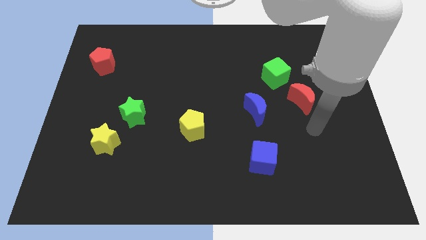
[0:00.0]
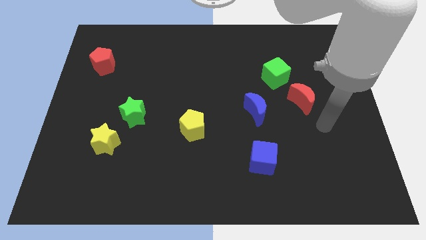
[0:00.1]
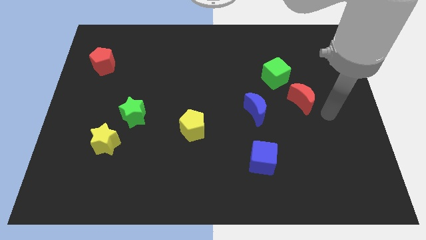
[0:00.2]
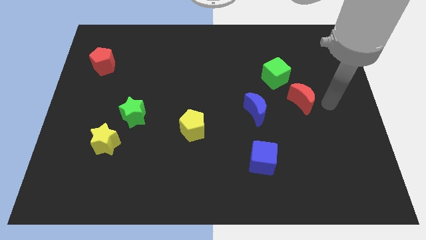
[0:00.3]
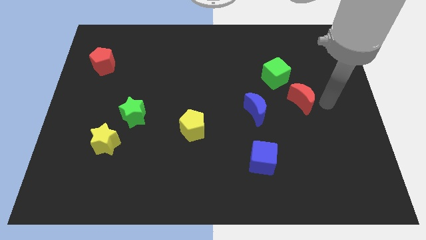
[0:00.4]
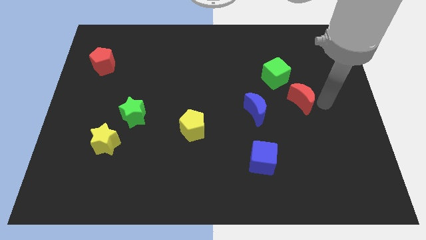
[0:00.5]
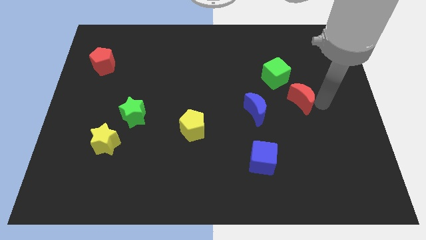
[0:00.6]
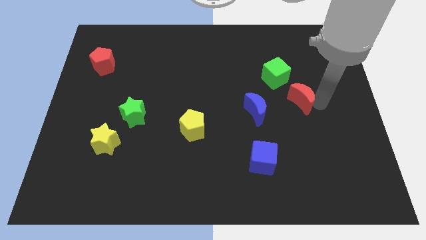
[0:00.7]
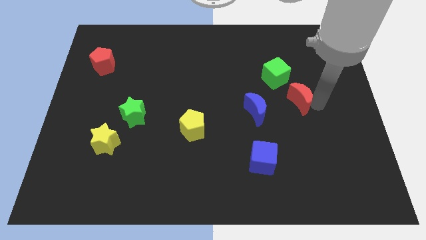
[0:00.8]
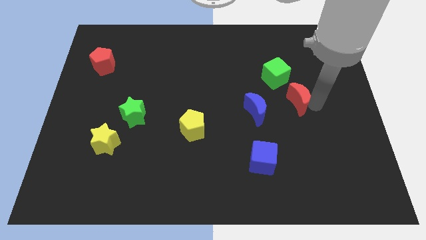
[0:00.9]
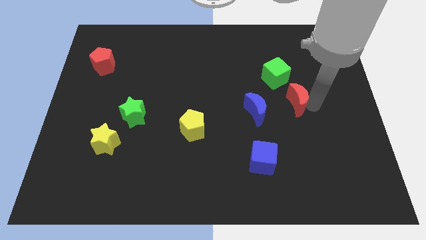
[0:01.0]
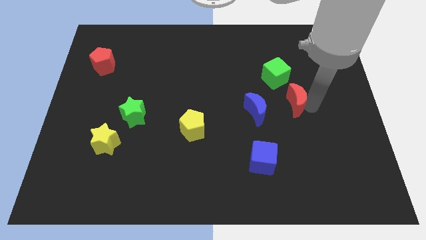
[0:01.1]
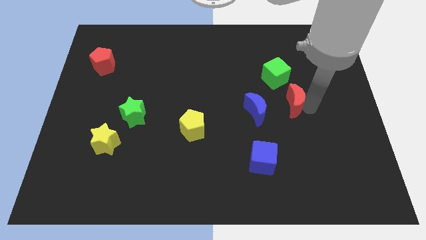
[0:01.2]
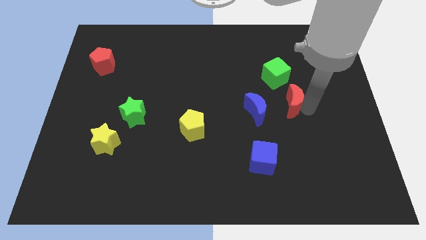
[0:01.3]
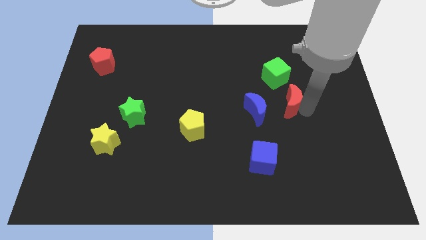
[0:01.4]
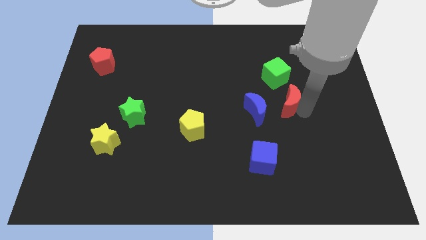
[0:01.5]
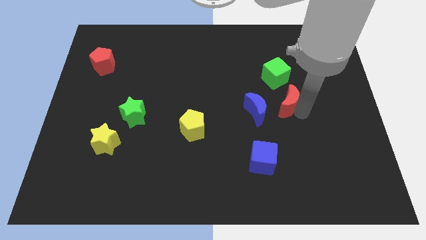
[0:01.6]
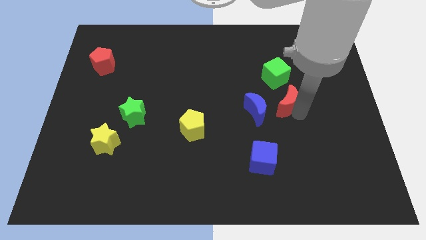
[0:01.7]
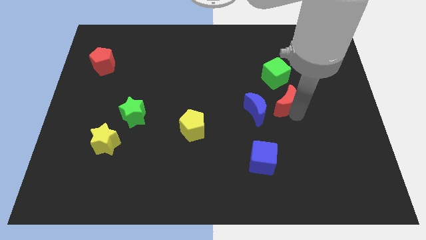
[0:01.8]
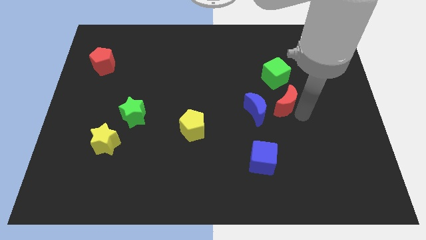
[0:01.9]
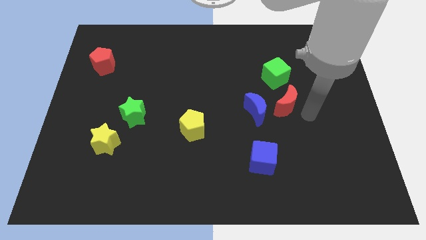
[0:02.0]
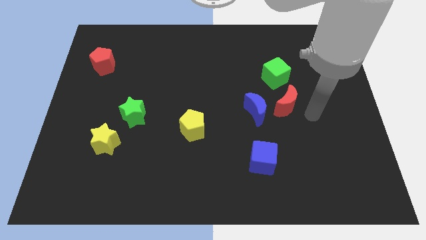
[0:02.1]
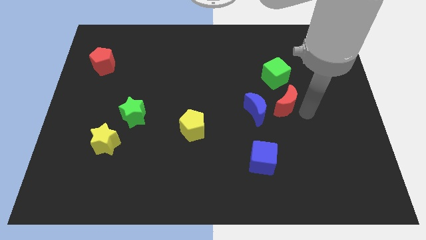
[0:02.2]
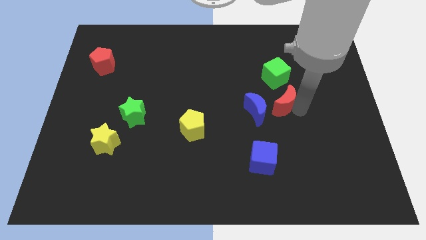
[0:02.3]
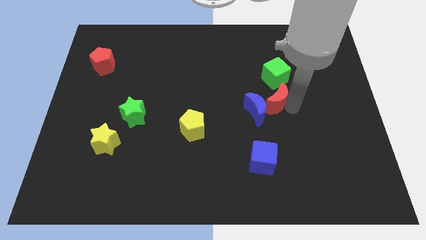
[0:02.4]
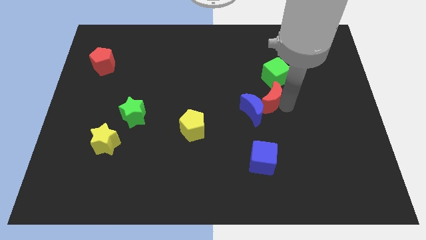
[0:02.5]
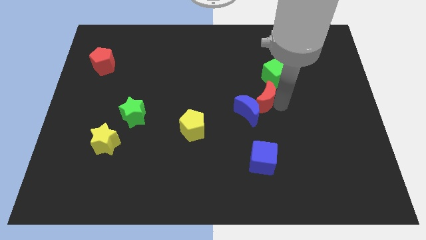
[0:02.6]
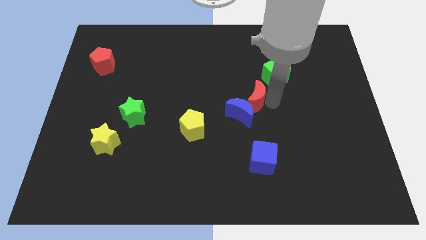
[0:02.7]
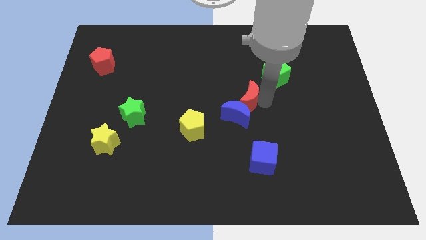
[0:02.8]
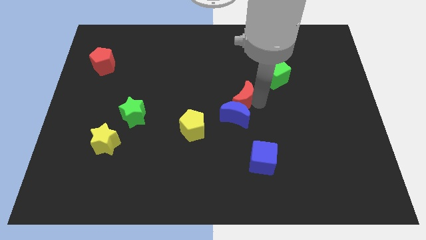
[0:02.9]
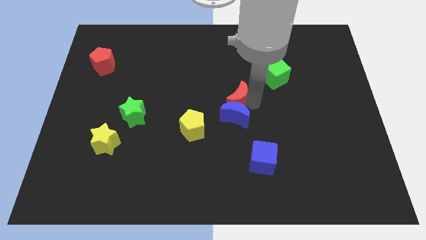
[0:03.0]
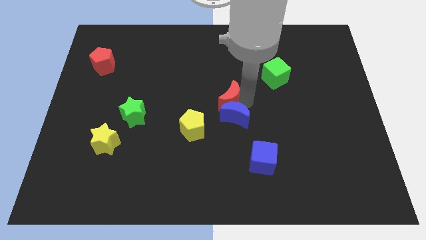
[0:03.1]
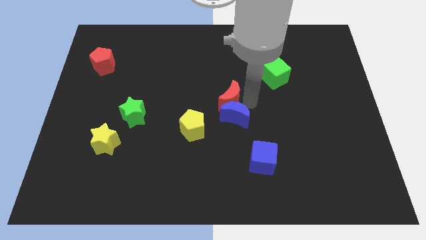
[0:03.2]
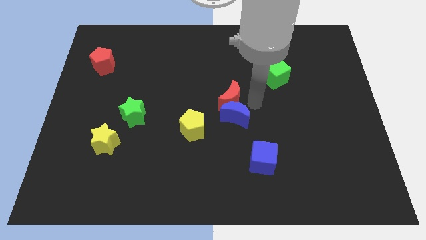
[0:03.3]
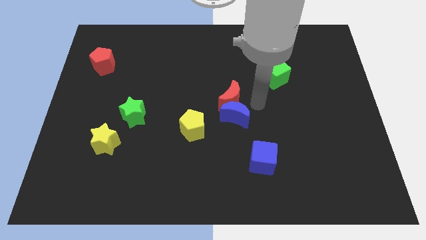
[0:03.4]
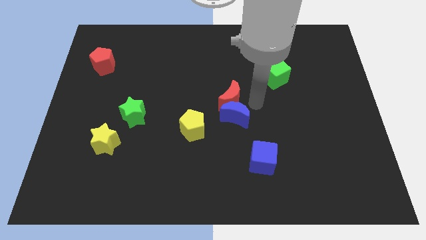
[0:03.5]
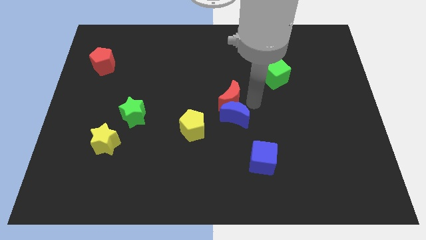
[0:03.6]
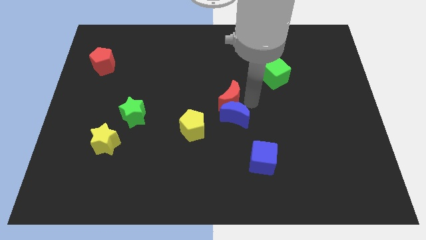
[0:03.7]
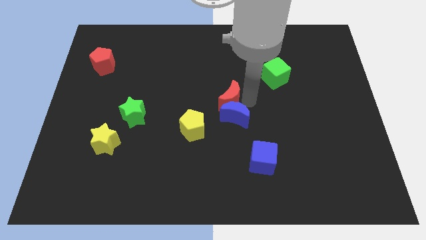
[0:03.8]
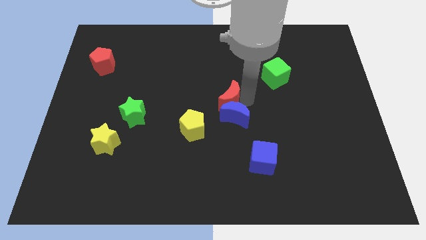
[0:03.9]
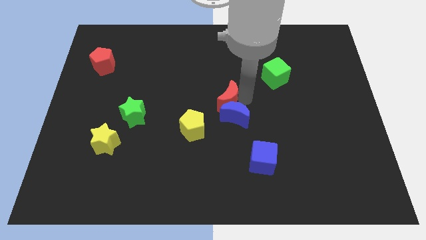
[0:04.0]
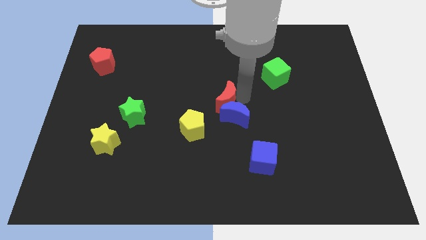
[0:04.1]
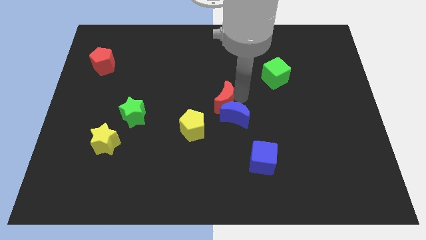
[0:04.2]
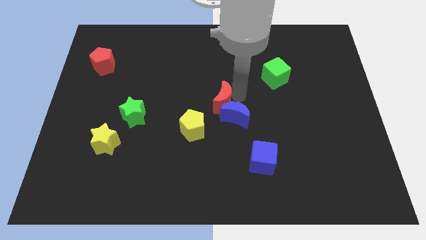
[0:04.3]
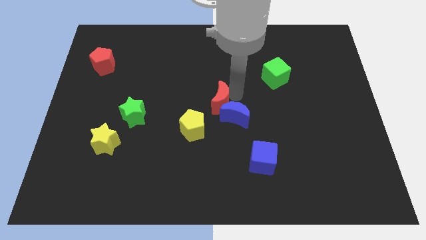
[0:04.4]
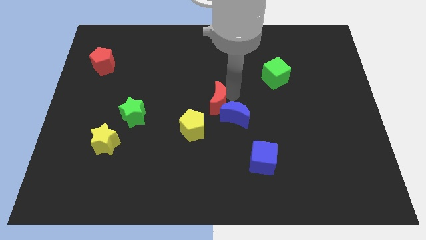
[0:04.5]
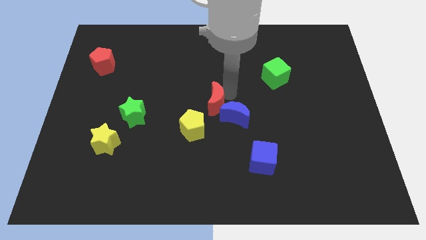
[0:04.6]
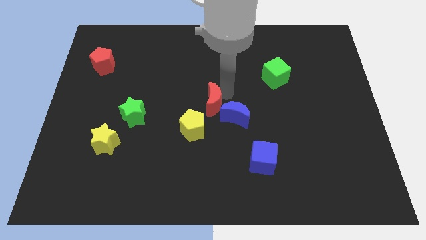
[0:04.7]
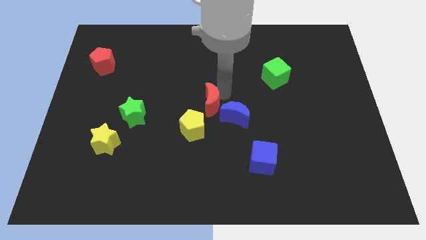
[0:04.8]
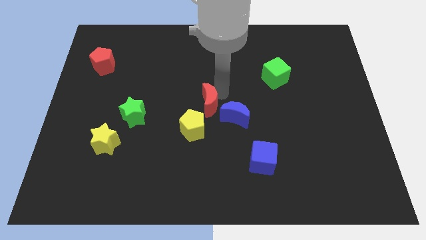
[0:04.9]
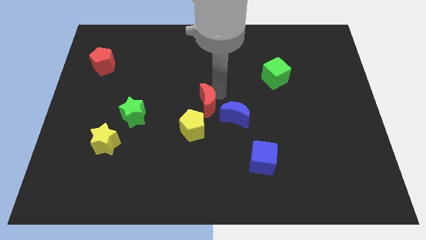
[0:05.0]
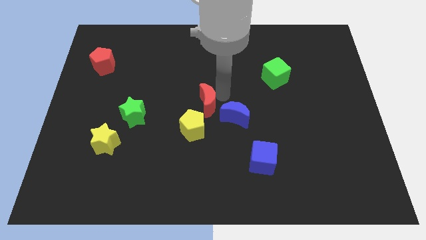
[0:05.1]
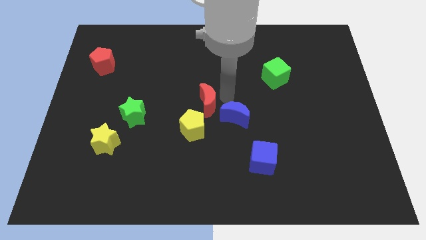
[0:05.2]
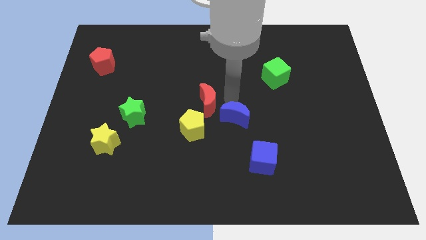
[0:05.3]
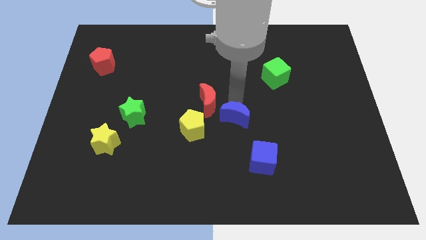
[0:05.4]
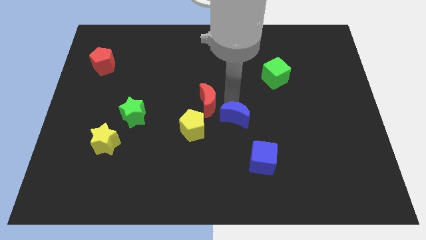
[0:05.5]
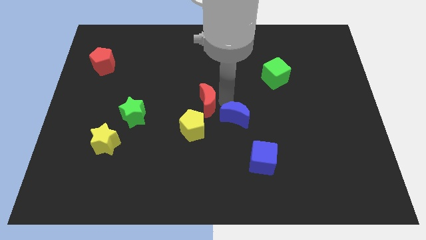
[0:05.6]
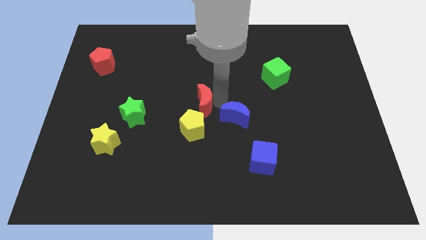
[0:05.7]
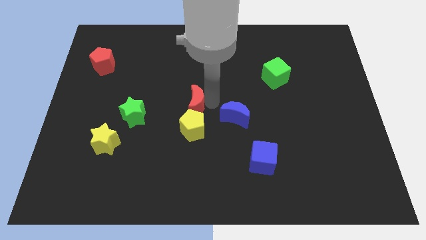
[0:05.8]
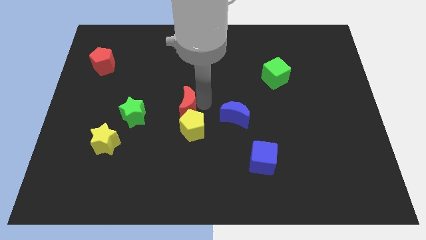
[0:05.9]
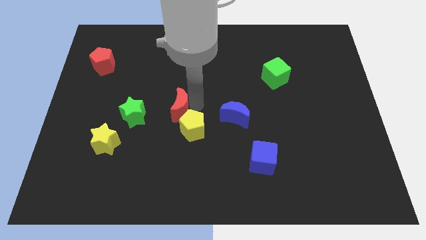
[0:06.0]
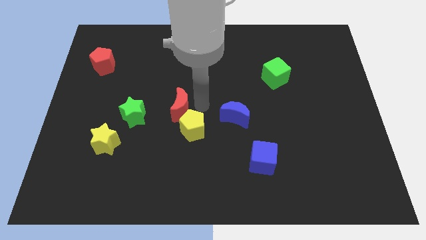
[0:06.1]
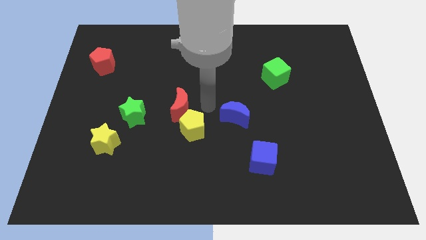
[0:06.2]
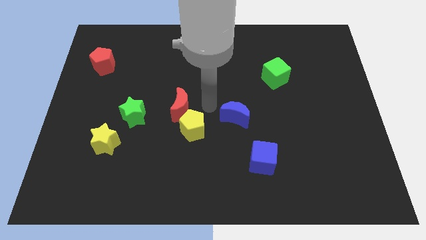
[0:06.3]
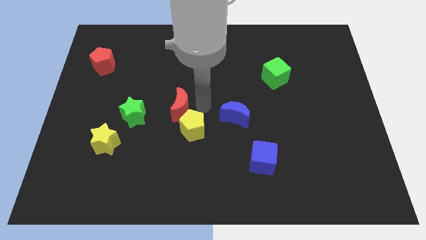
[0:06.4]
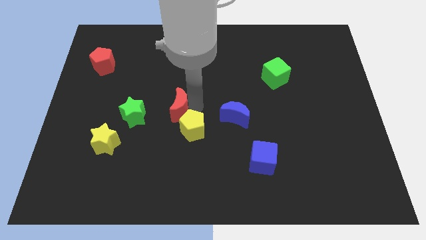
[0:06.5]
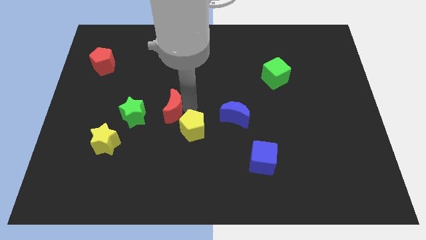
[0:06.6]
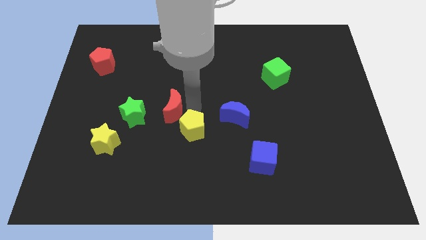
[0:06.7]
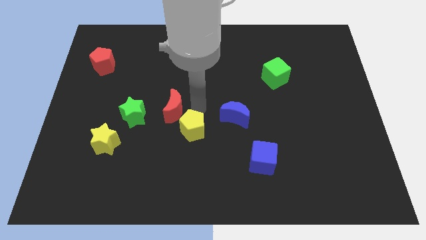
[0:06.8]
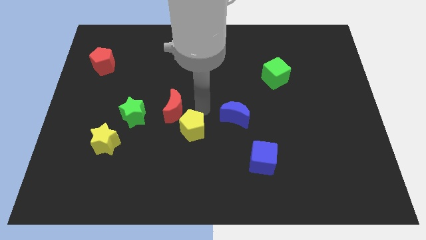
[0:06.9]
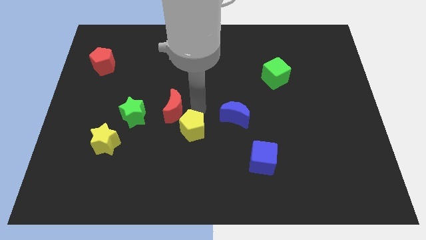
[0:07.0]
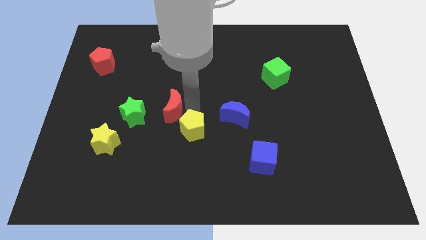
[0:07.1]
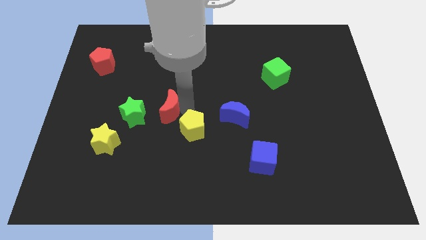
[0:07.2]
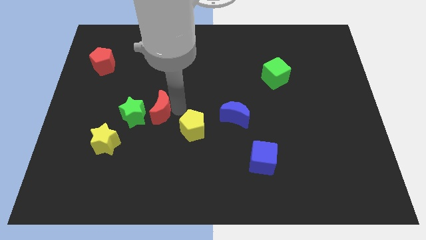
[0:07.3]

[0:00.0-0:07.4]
move the red moon next to the green star
